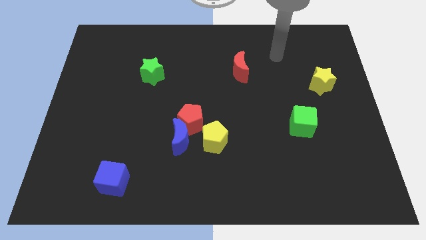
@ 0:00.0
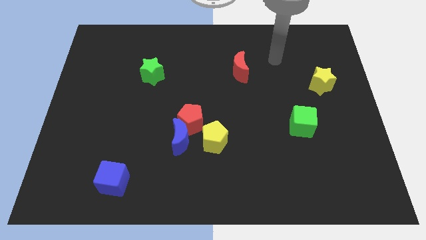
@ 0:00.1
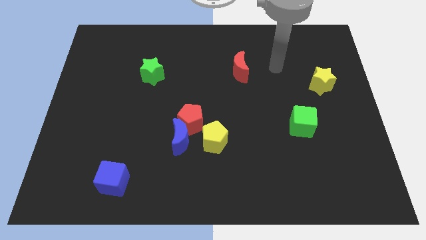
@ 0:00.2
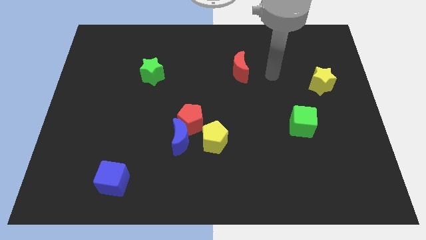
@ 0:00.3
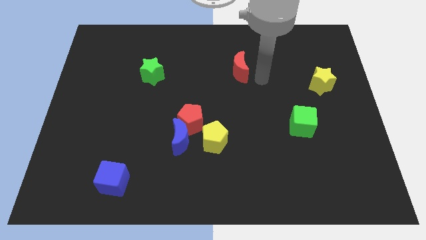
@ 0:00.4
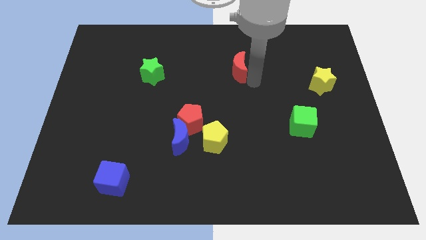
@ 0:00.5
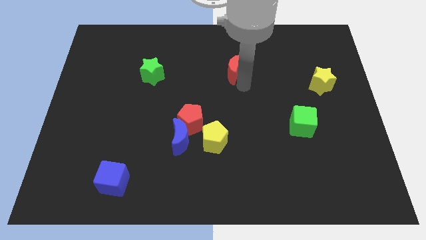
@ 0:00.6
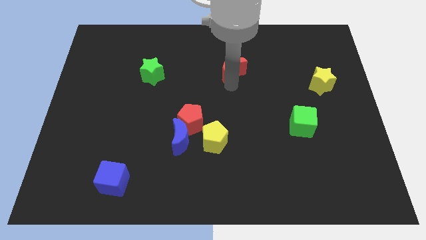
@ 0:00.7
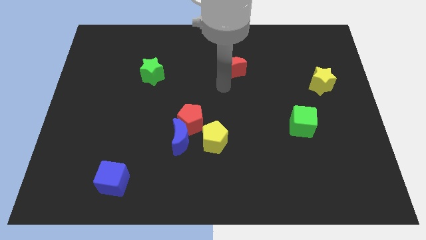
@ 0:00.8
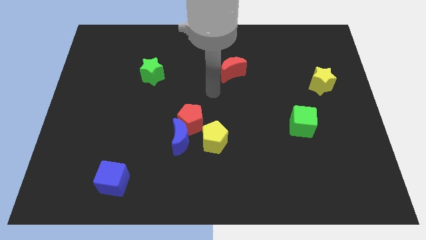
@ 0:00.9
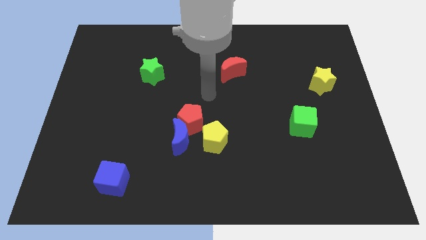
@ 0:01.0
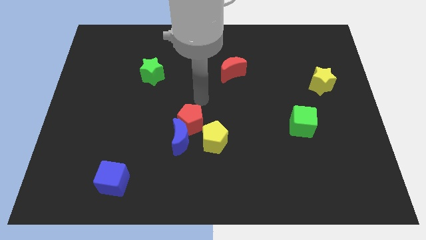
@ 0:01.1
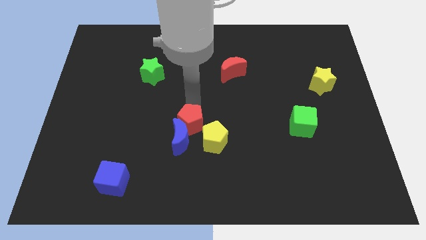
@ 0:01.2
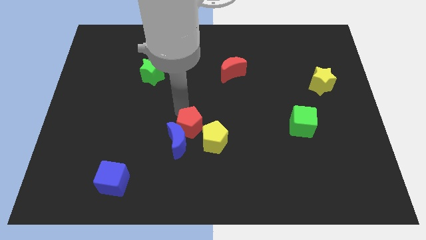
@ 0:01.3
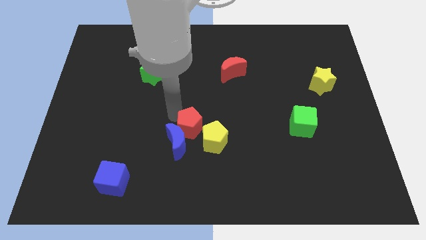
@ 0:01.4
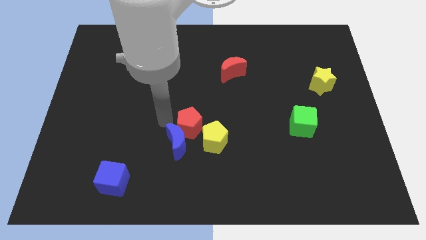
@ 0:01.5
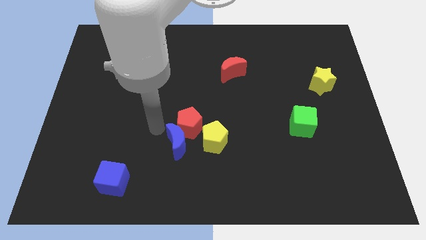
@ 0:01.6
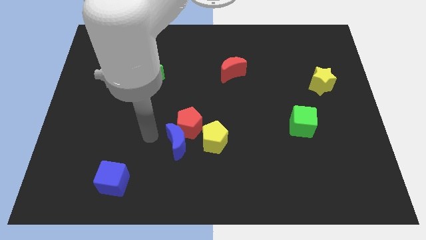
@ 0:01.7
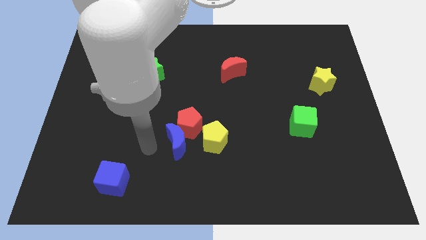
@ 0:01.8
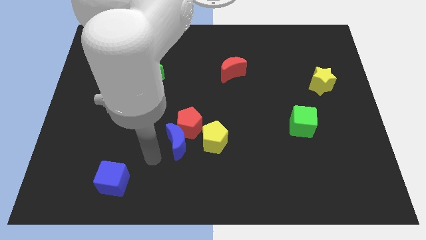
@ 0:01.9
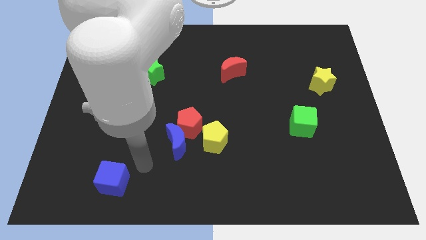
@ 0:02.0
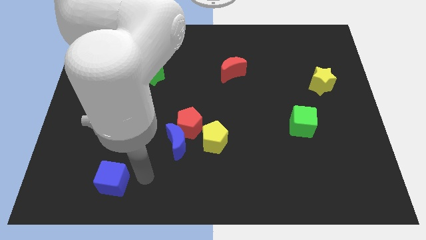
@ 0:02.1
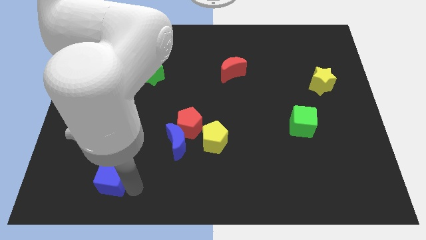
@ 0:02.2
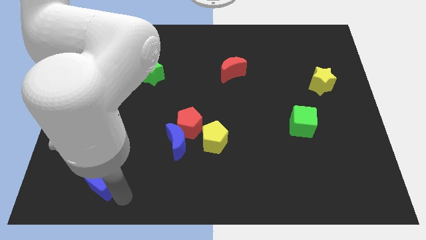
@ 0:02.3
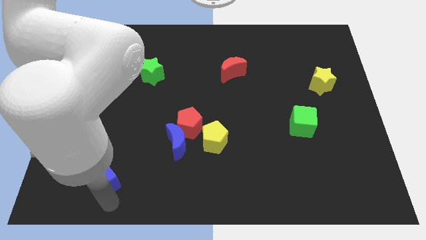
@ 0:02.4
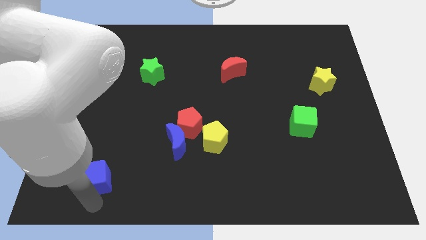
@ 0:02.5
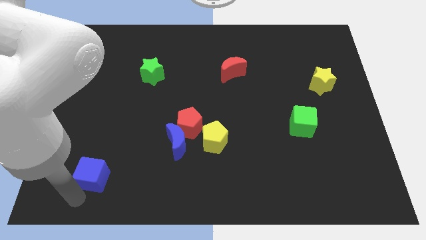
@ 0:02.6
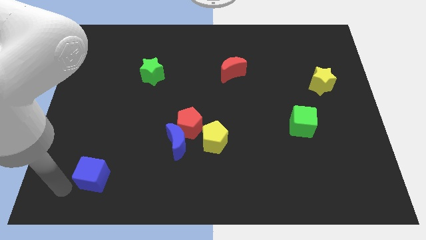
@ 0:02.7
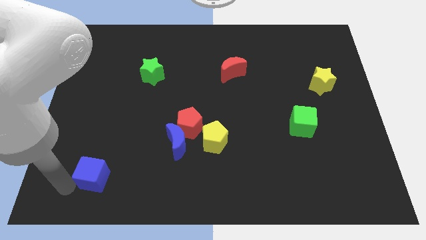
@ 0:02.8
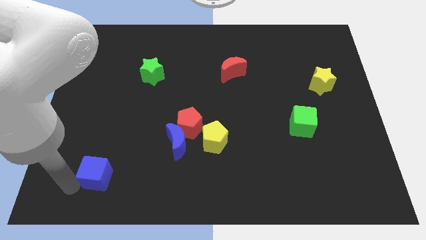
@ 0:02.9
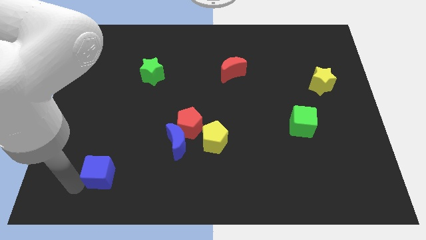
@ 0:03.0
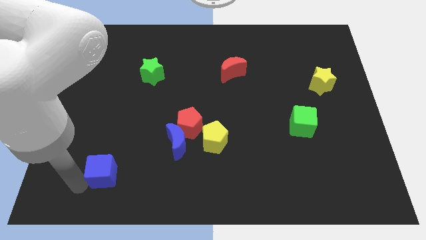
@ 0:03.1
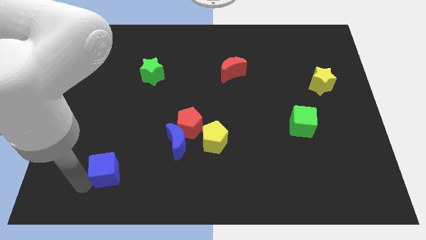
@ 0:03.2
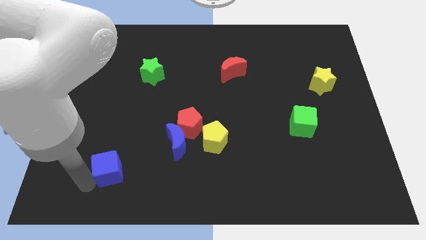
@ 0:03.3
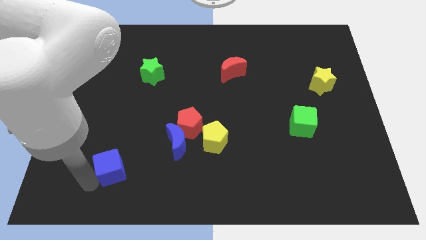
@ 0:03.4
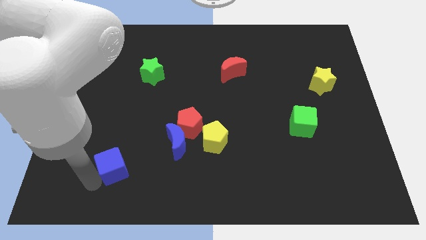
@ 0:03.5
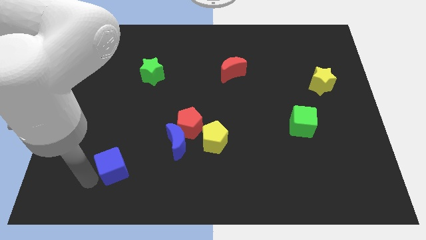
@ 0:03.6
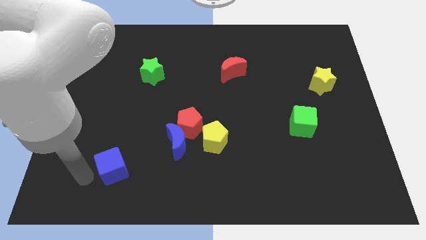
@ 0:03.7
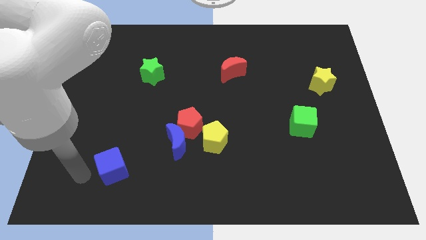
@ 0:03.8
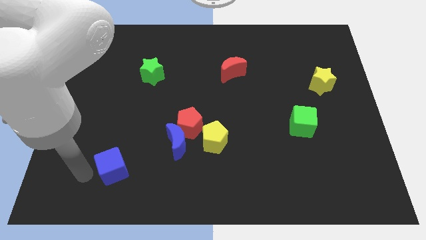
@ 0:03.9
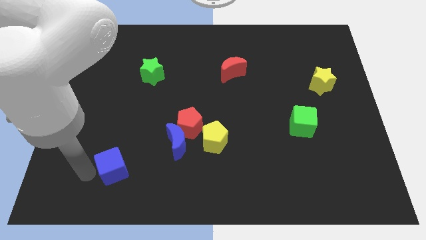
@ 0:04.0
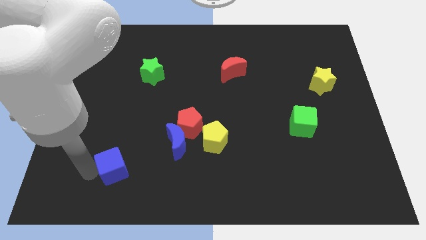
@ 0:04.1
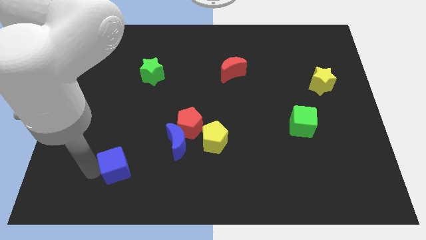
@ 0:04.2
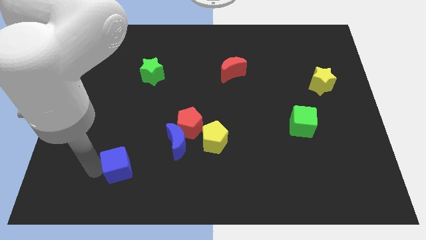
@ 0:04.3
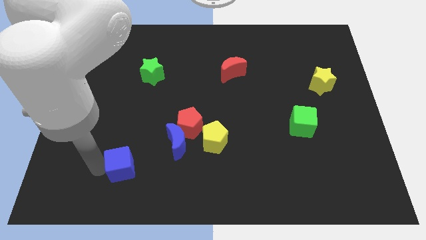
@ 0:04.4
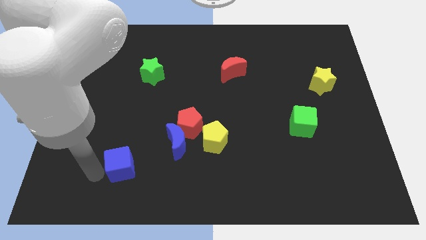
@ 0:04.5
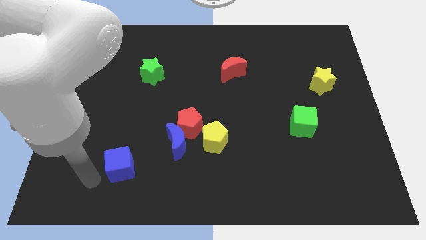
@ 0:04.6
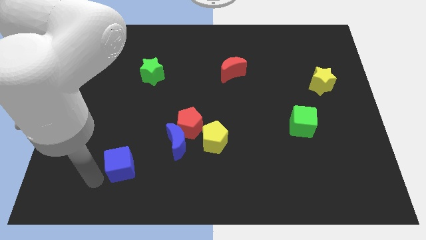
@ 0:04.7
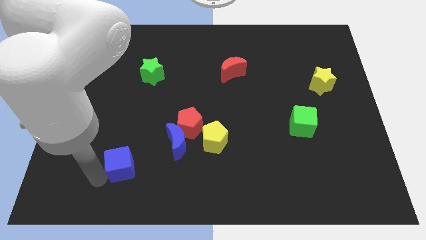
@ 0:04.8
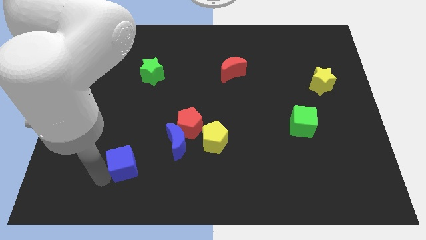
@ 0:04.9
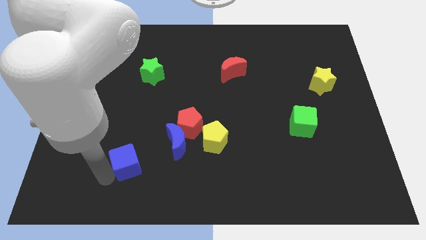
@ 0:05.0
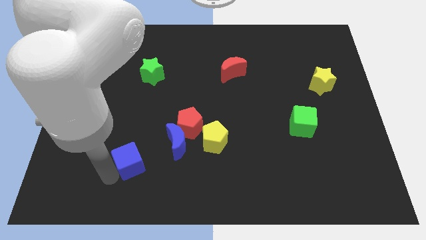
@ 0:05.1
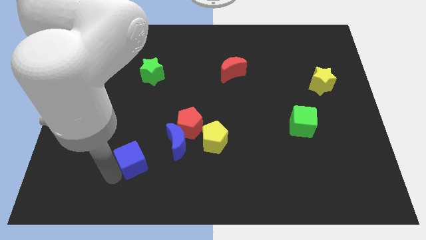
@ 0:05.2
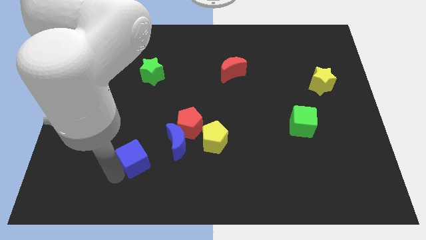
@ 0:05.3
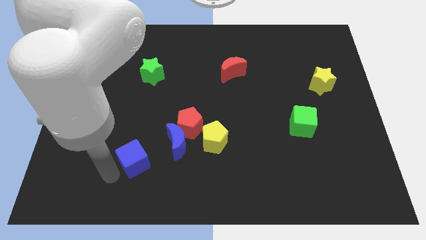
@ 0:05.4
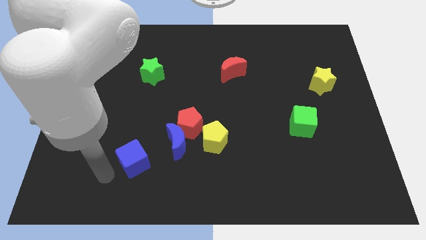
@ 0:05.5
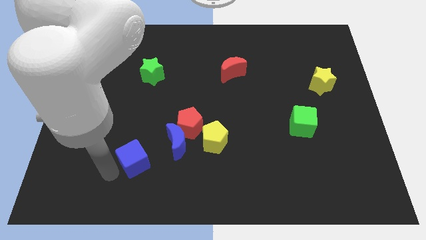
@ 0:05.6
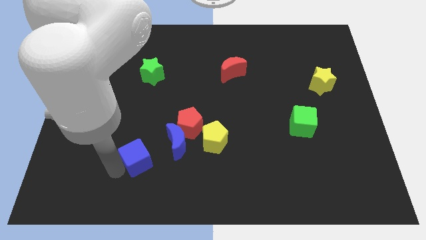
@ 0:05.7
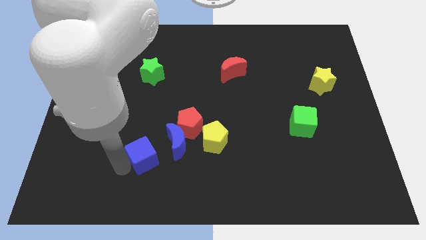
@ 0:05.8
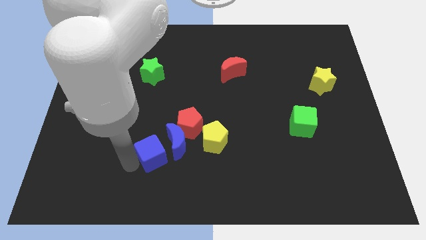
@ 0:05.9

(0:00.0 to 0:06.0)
slide the blue cube close to the blue moon
